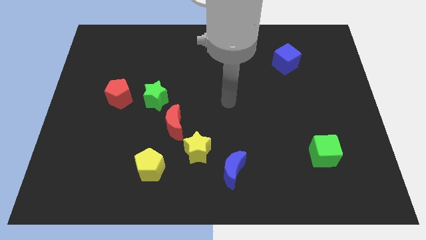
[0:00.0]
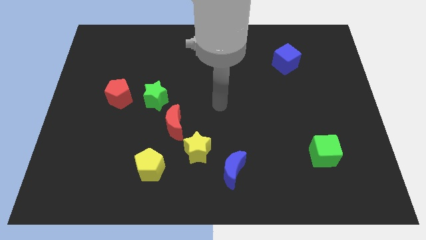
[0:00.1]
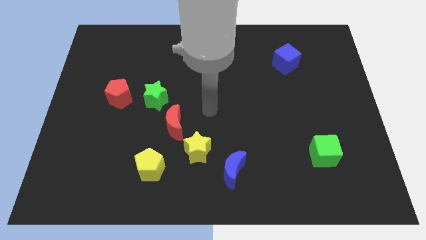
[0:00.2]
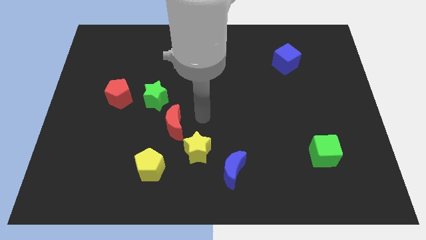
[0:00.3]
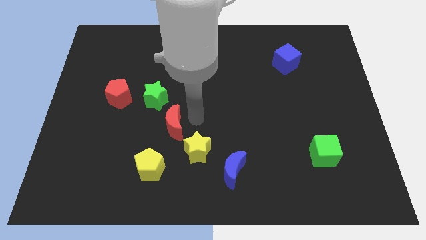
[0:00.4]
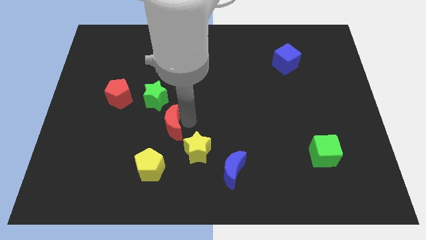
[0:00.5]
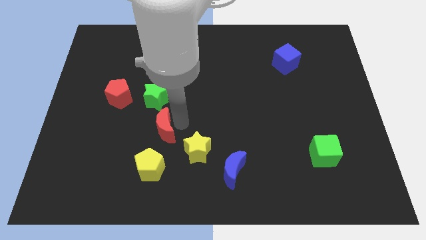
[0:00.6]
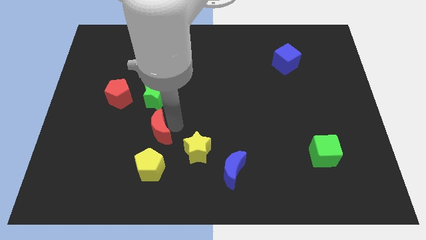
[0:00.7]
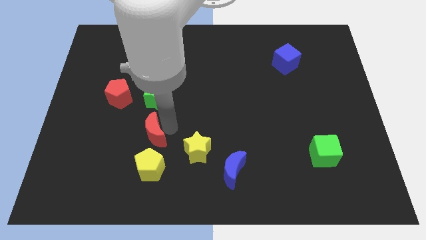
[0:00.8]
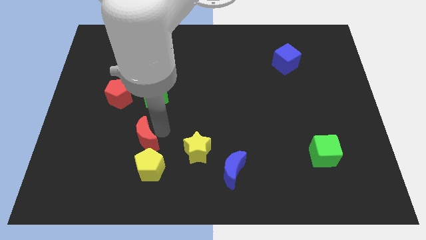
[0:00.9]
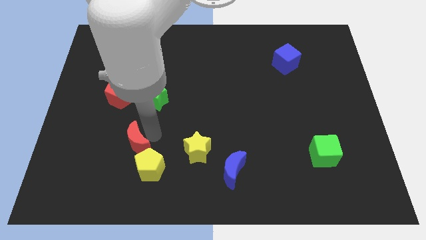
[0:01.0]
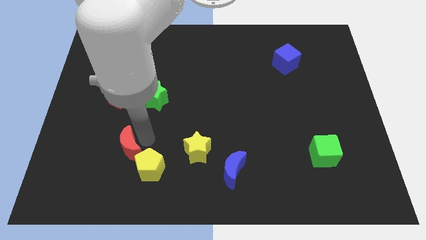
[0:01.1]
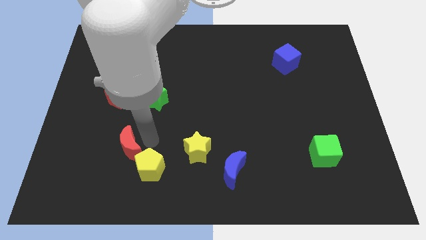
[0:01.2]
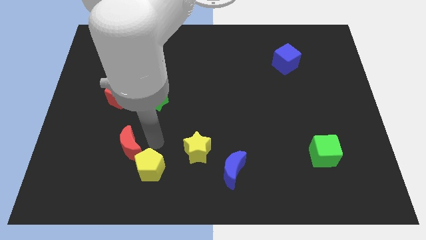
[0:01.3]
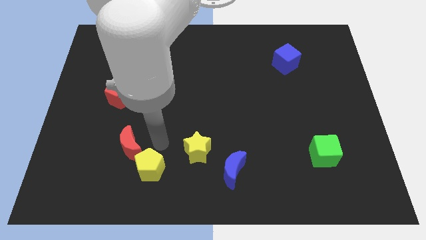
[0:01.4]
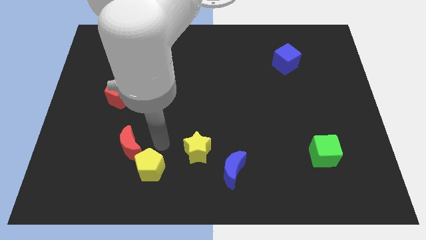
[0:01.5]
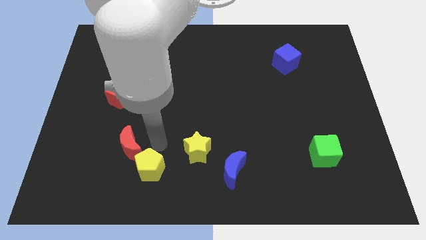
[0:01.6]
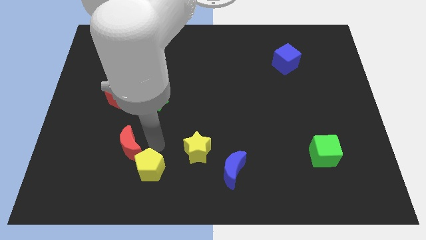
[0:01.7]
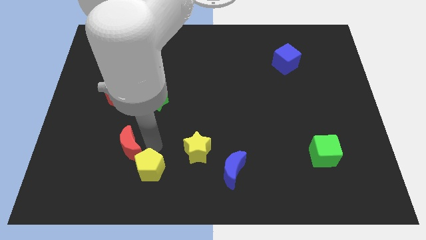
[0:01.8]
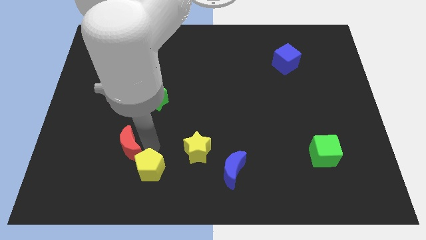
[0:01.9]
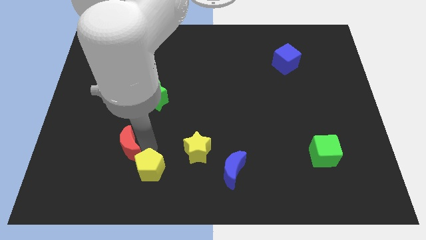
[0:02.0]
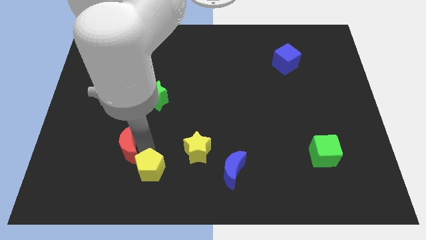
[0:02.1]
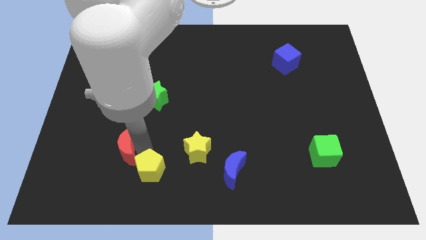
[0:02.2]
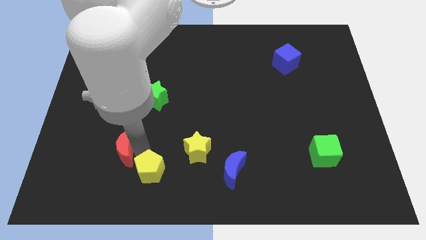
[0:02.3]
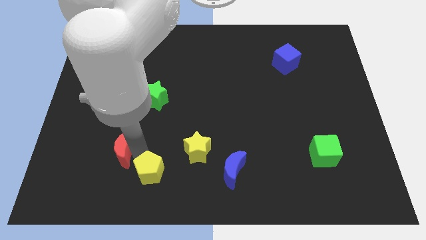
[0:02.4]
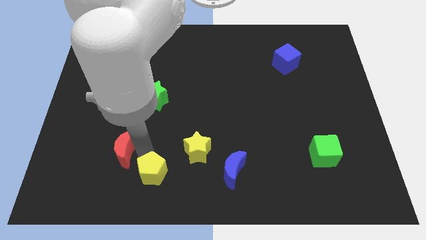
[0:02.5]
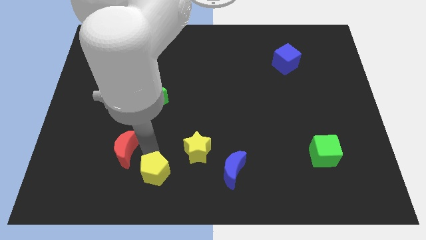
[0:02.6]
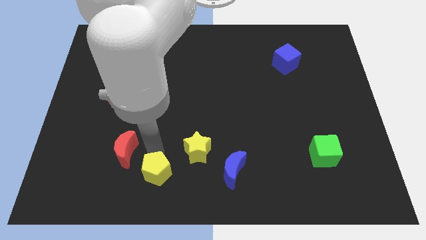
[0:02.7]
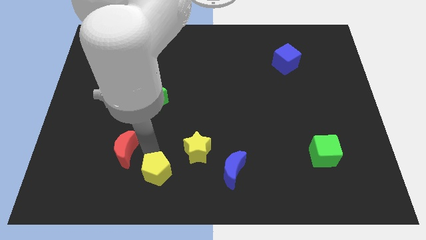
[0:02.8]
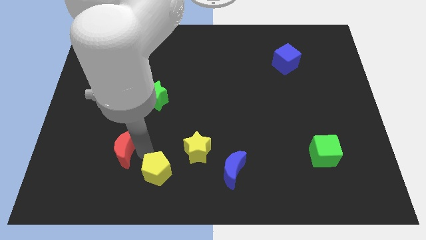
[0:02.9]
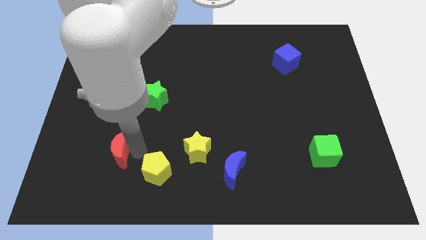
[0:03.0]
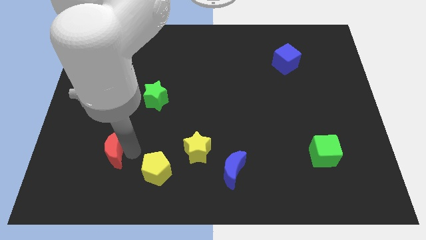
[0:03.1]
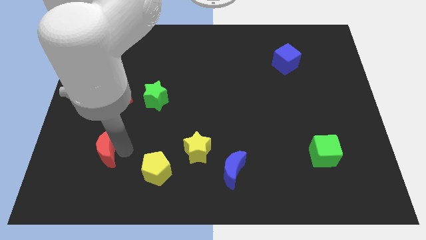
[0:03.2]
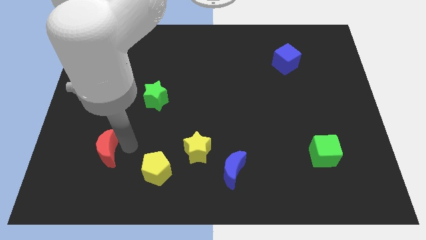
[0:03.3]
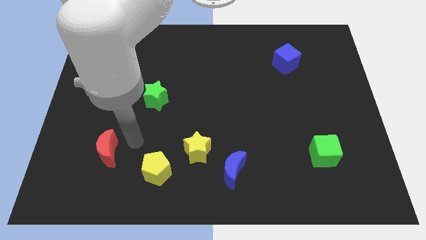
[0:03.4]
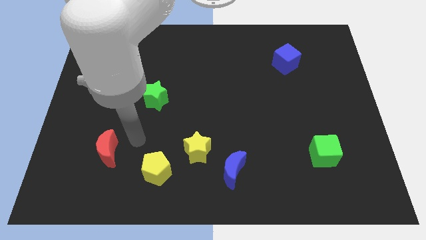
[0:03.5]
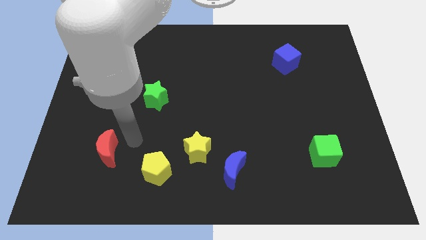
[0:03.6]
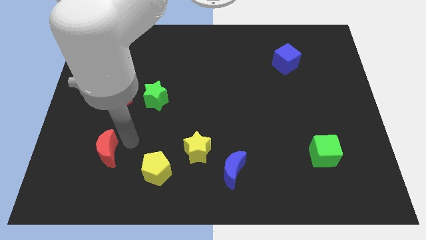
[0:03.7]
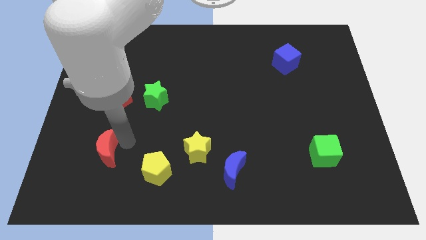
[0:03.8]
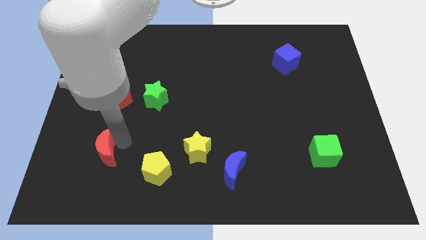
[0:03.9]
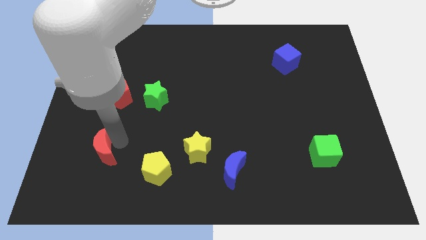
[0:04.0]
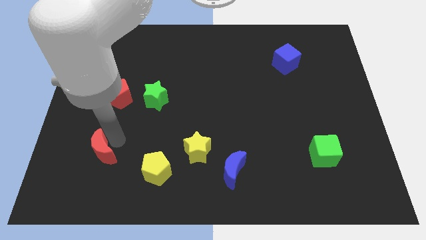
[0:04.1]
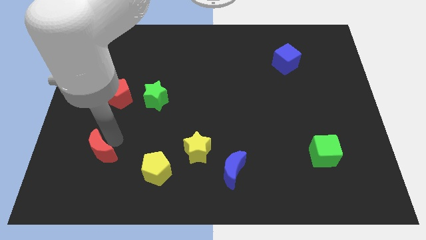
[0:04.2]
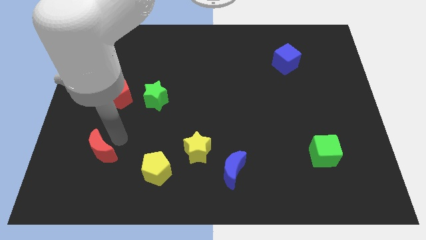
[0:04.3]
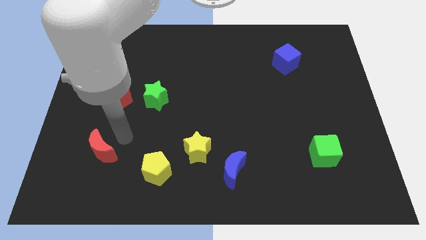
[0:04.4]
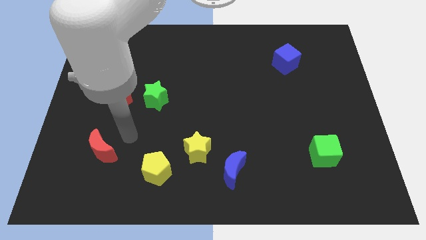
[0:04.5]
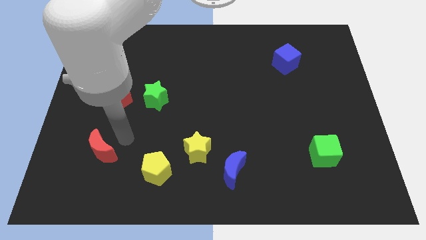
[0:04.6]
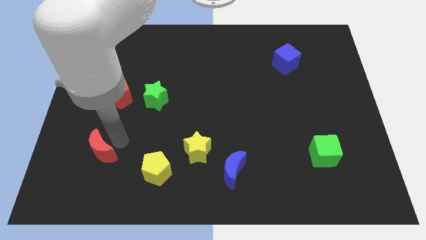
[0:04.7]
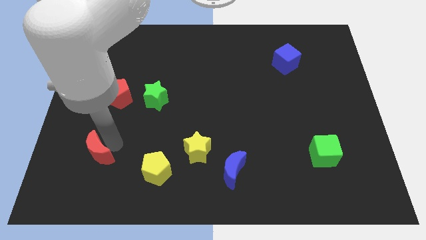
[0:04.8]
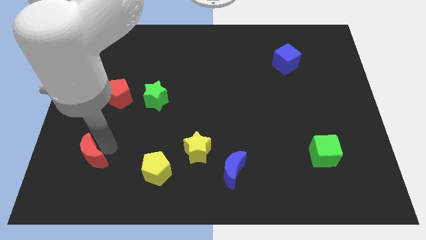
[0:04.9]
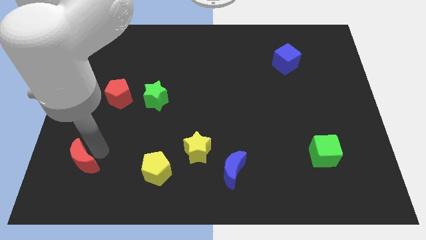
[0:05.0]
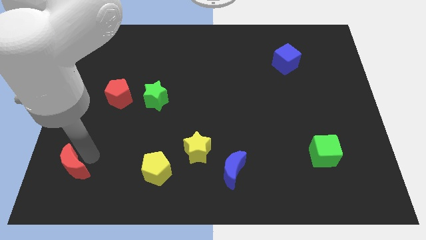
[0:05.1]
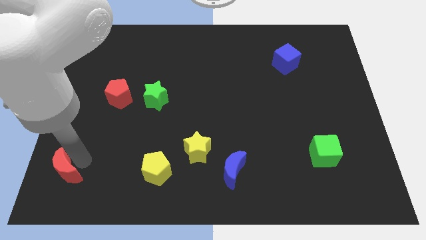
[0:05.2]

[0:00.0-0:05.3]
put the red moon to the lower left corner

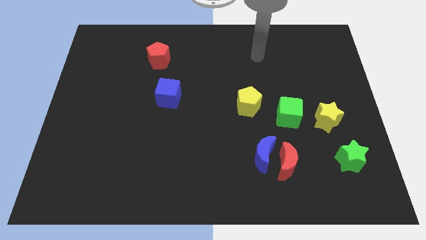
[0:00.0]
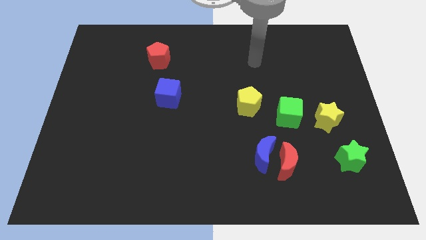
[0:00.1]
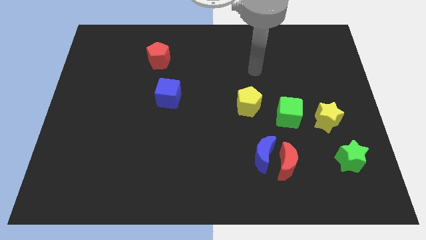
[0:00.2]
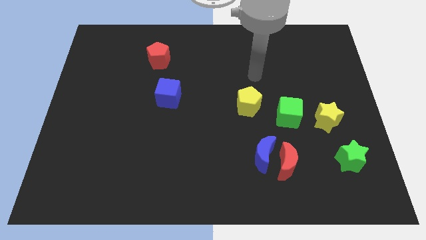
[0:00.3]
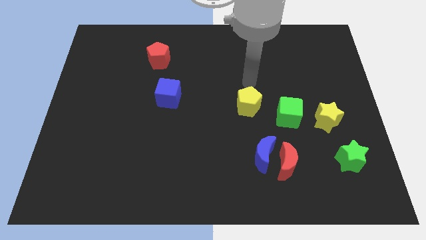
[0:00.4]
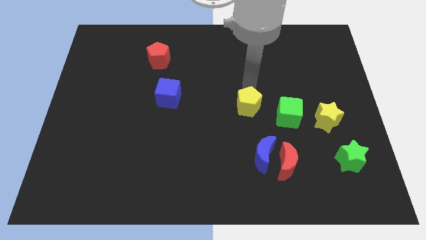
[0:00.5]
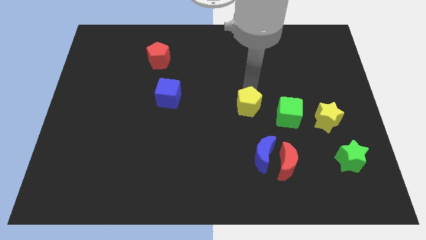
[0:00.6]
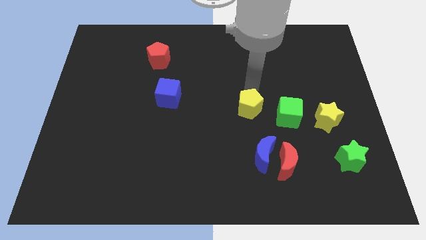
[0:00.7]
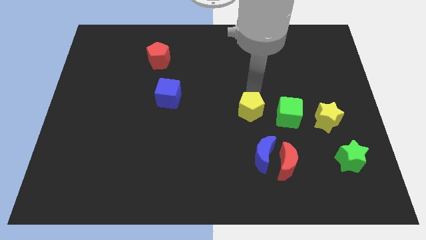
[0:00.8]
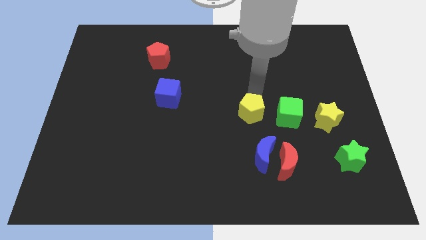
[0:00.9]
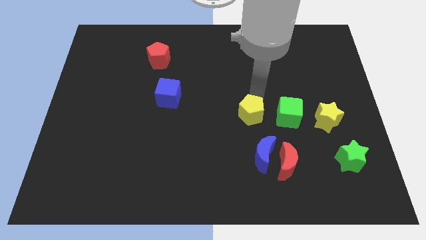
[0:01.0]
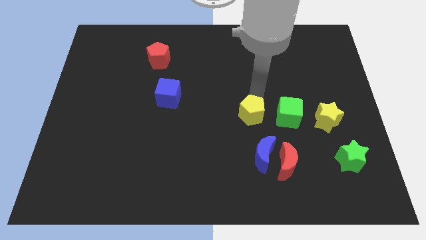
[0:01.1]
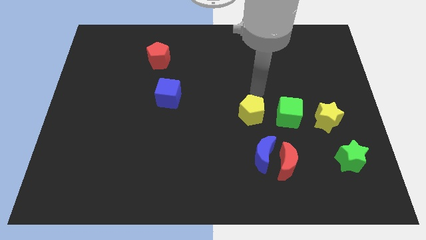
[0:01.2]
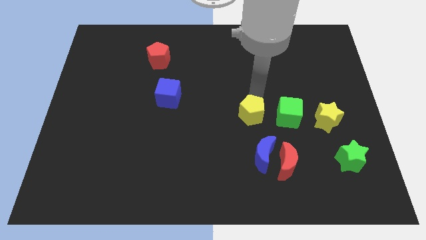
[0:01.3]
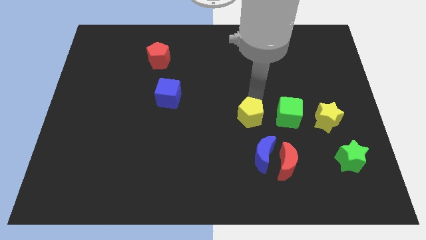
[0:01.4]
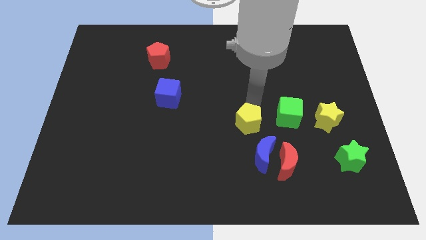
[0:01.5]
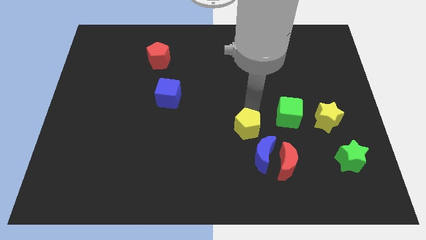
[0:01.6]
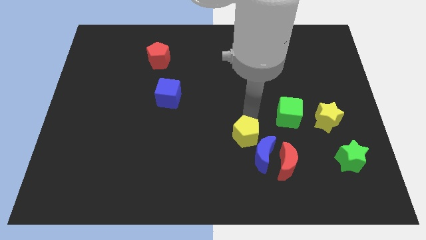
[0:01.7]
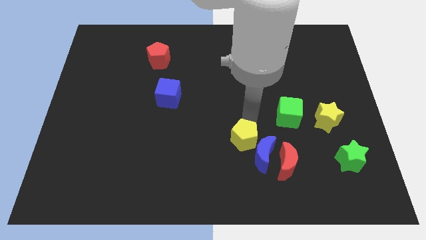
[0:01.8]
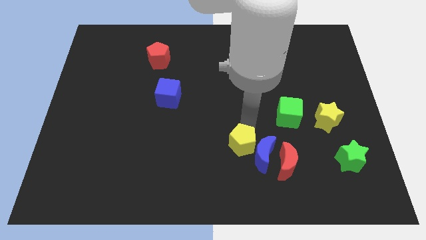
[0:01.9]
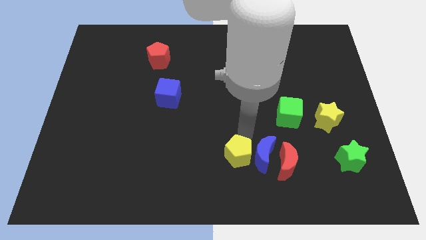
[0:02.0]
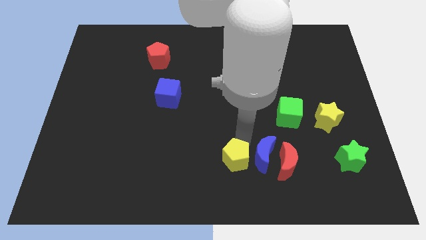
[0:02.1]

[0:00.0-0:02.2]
move the yellow pentagon to the bottom side
